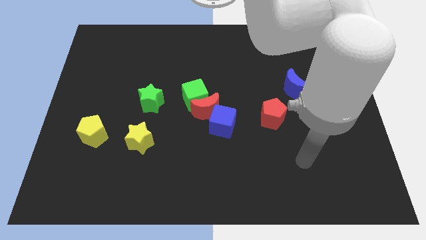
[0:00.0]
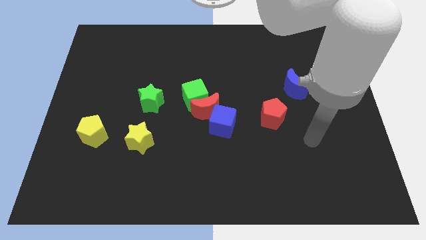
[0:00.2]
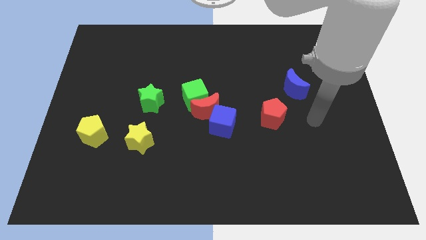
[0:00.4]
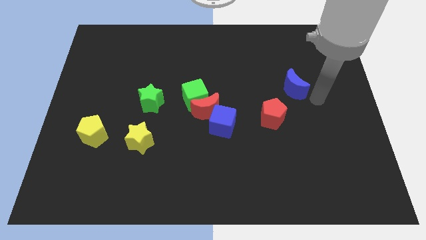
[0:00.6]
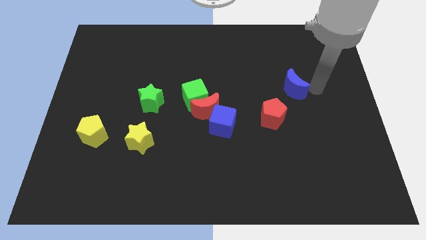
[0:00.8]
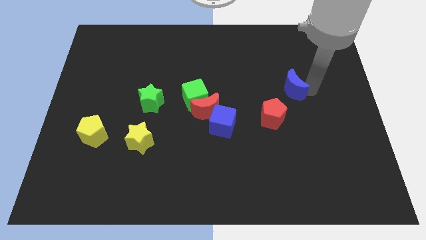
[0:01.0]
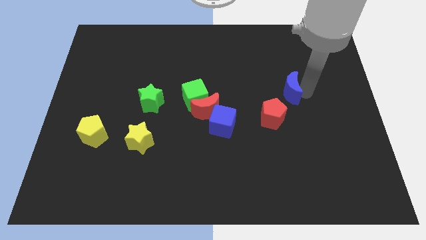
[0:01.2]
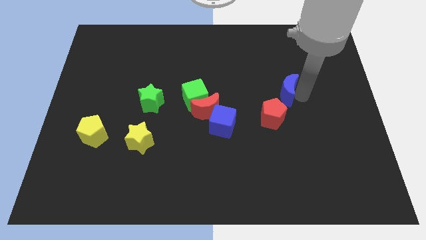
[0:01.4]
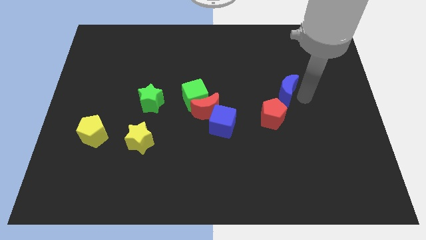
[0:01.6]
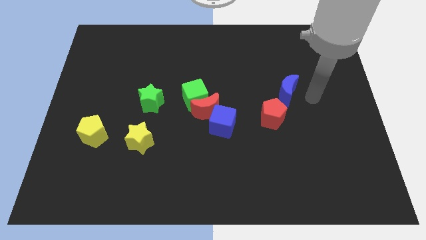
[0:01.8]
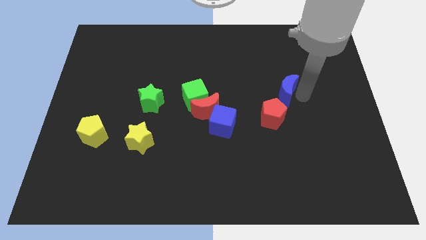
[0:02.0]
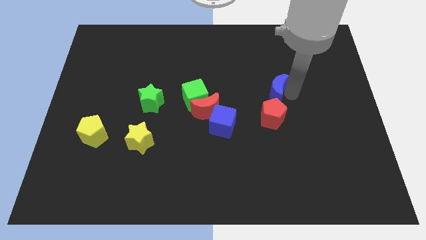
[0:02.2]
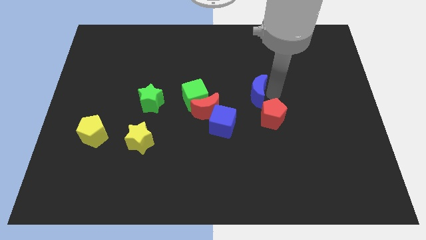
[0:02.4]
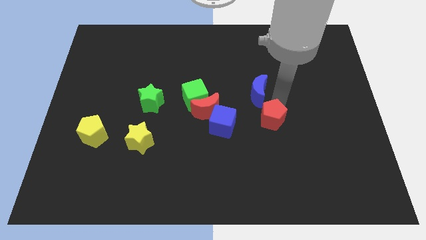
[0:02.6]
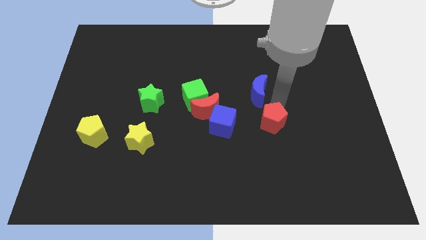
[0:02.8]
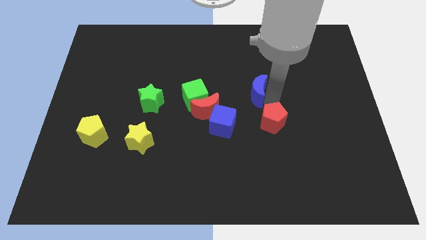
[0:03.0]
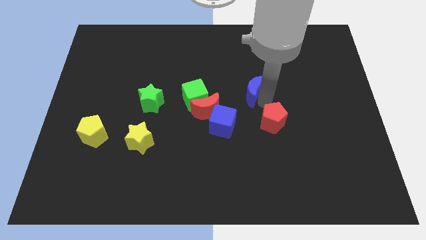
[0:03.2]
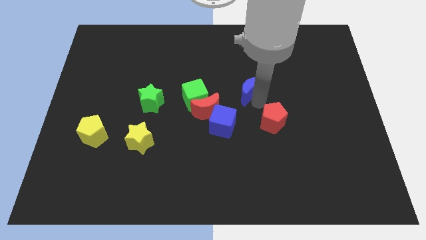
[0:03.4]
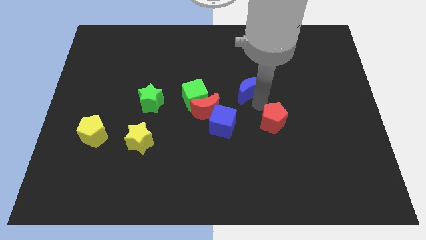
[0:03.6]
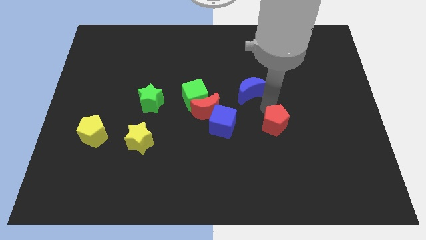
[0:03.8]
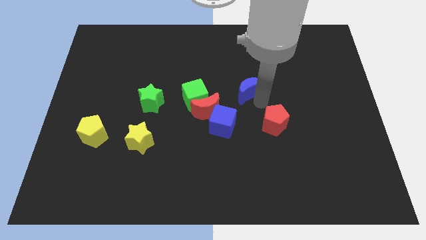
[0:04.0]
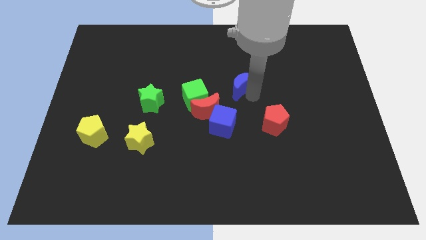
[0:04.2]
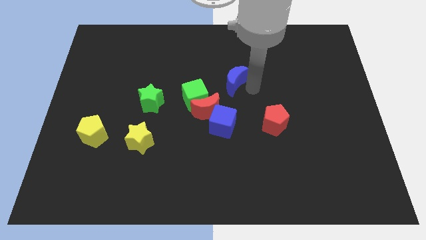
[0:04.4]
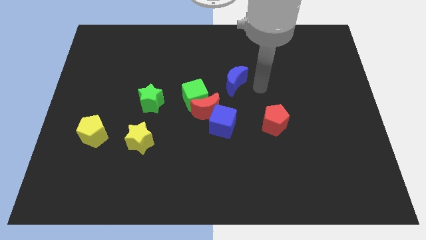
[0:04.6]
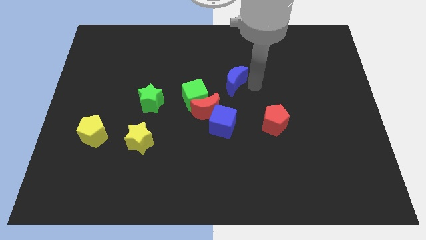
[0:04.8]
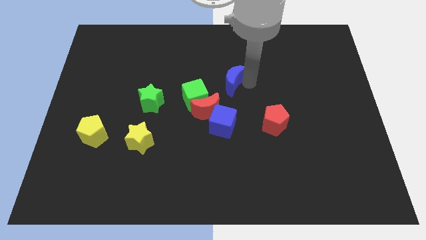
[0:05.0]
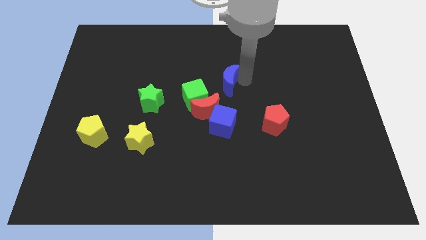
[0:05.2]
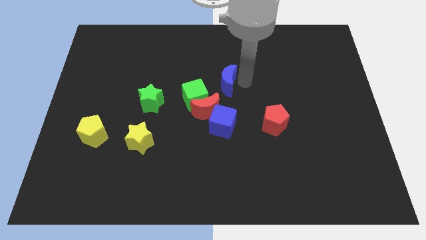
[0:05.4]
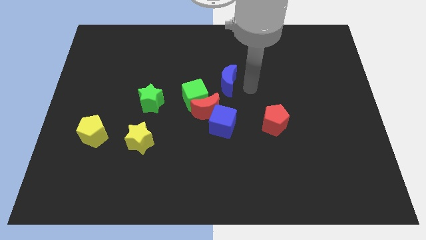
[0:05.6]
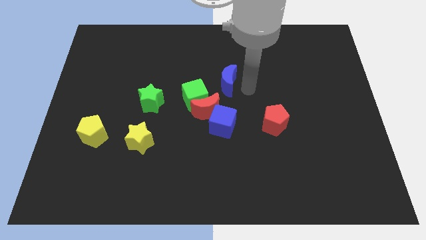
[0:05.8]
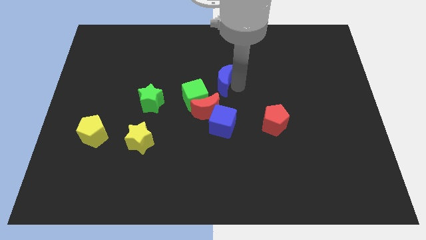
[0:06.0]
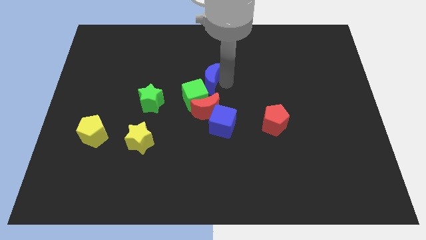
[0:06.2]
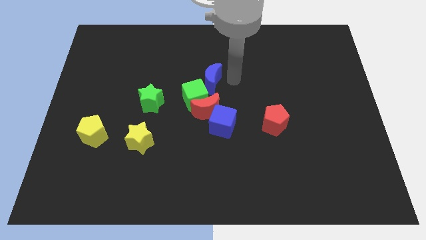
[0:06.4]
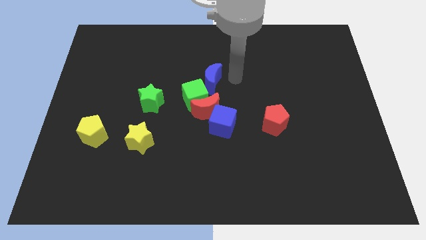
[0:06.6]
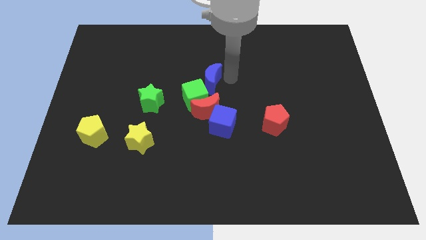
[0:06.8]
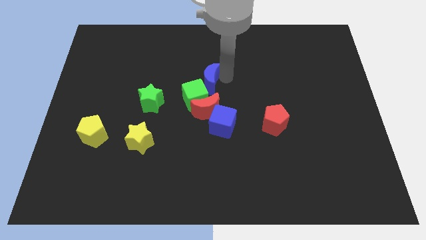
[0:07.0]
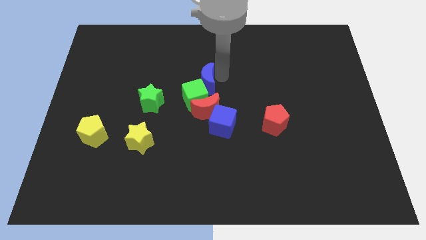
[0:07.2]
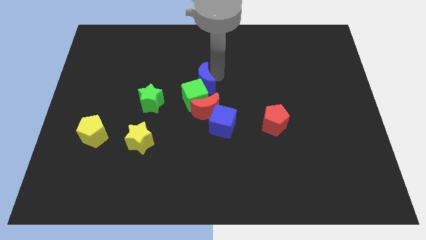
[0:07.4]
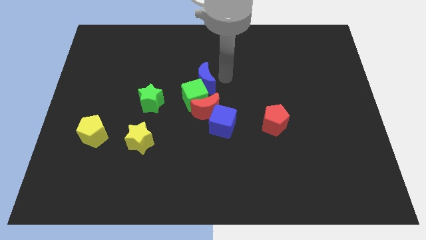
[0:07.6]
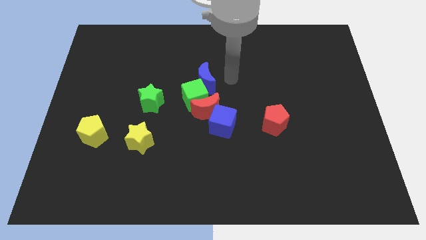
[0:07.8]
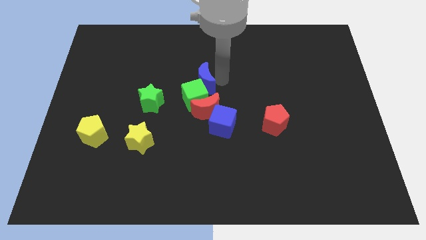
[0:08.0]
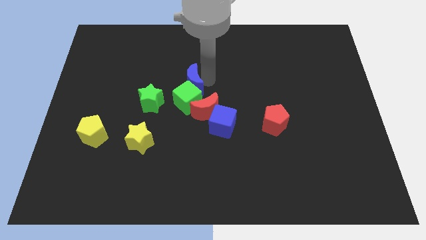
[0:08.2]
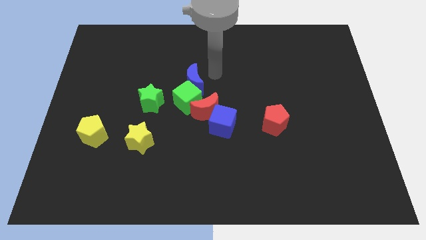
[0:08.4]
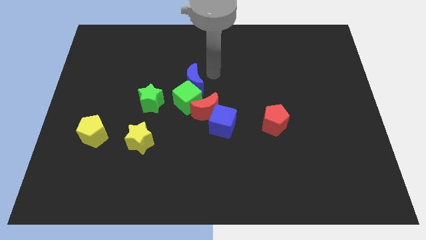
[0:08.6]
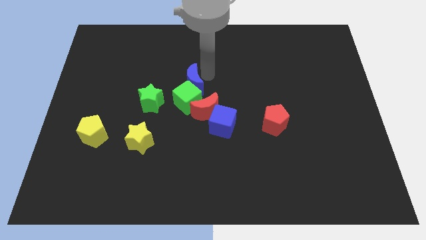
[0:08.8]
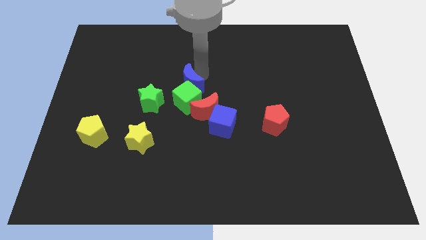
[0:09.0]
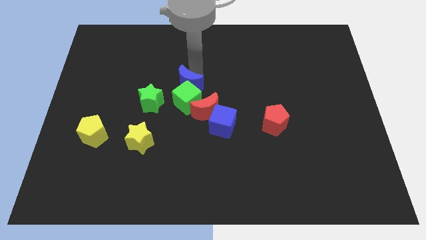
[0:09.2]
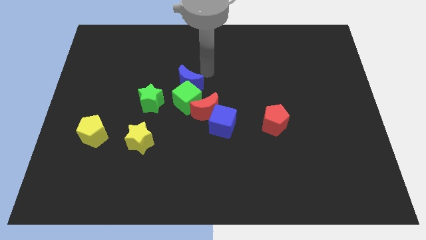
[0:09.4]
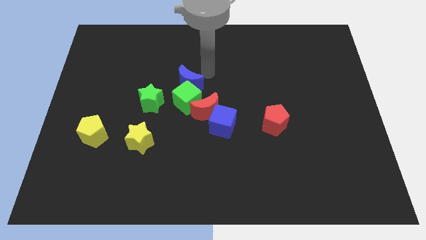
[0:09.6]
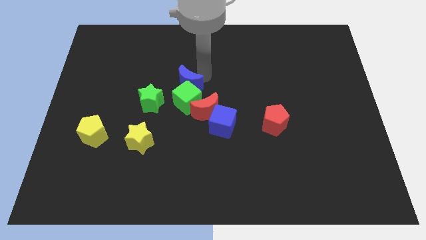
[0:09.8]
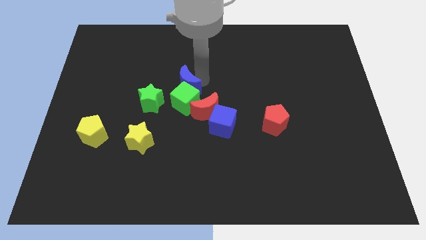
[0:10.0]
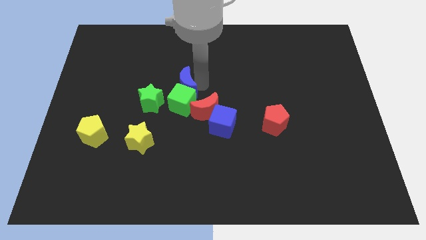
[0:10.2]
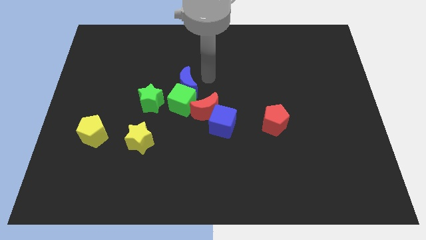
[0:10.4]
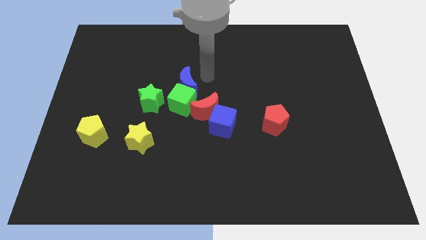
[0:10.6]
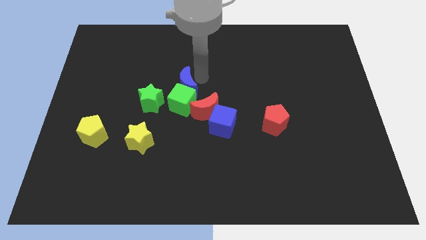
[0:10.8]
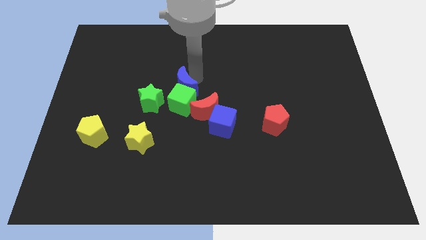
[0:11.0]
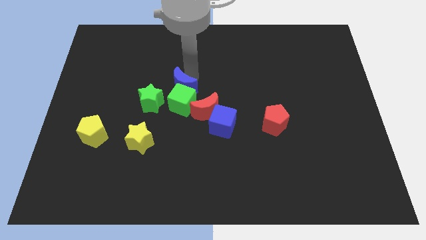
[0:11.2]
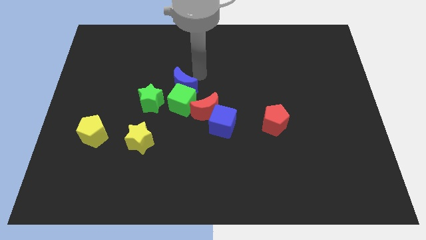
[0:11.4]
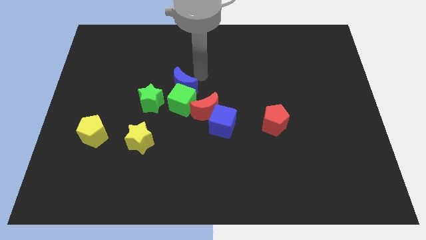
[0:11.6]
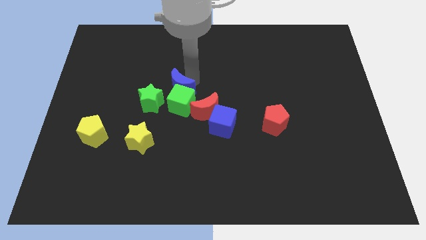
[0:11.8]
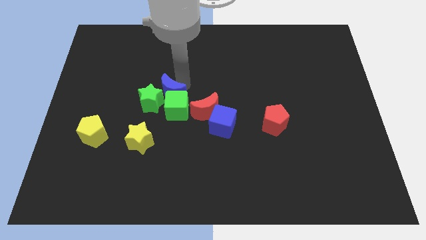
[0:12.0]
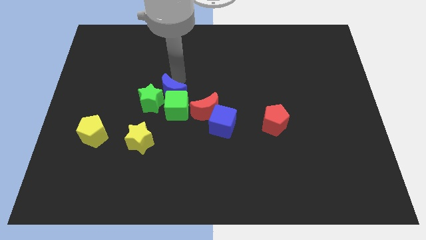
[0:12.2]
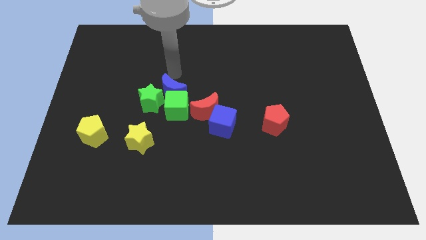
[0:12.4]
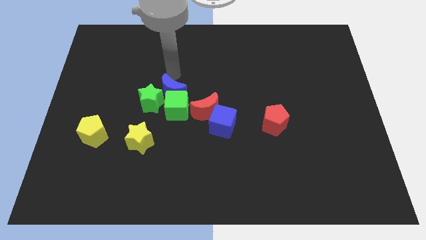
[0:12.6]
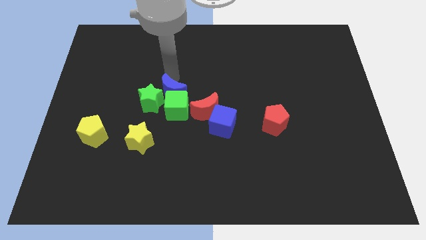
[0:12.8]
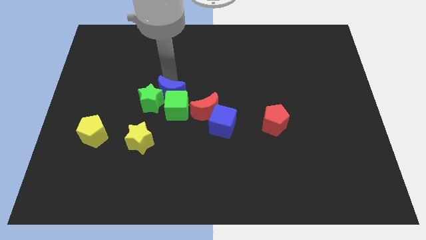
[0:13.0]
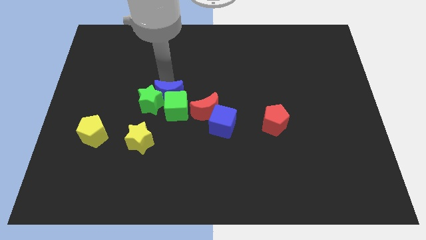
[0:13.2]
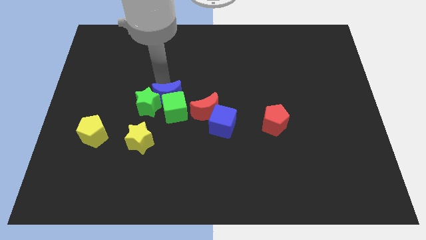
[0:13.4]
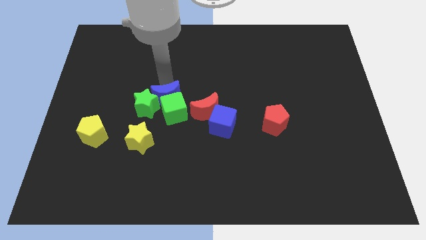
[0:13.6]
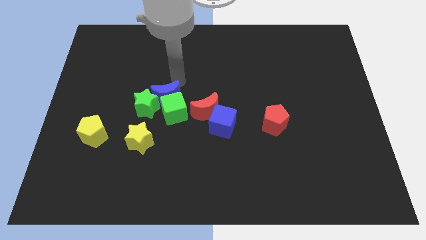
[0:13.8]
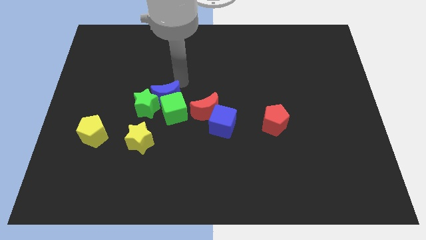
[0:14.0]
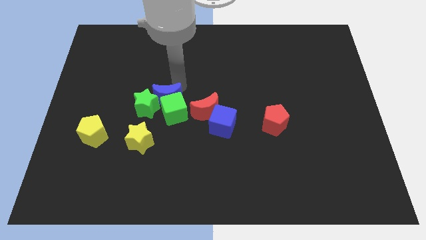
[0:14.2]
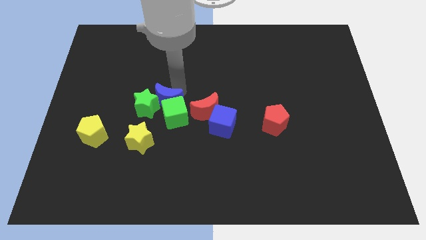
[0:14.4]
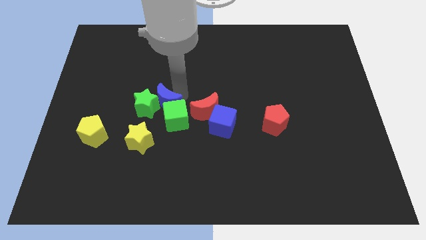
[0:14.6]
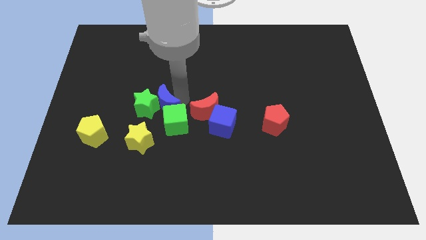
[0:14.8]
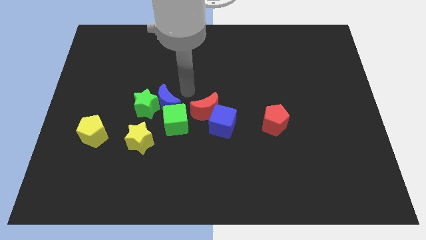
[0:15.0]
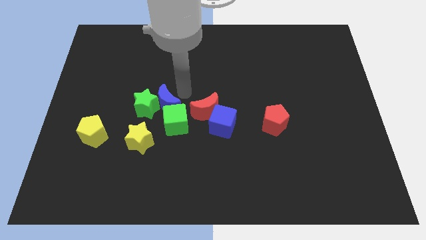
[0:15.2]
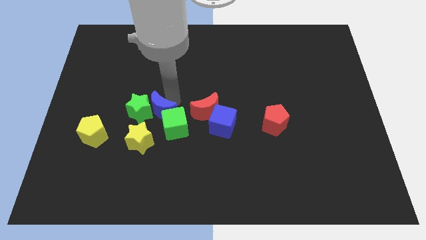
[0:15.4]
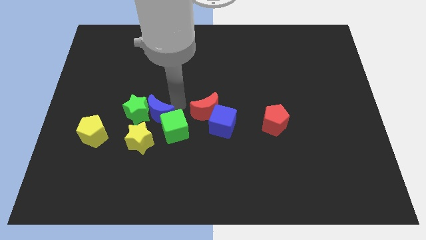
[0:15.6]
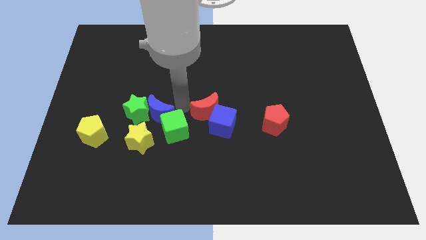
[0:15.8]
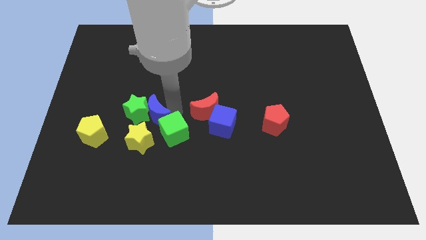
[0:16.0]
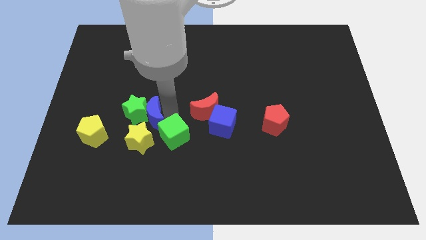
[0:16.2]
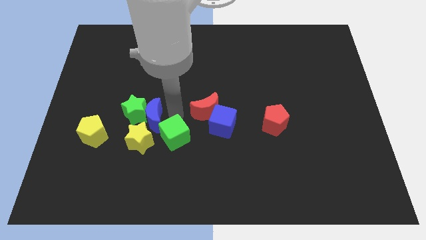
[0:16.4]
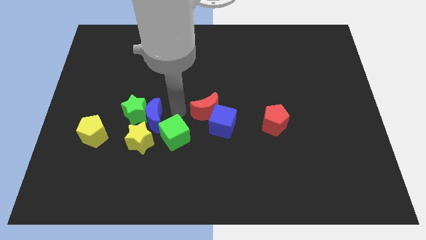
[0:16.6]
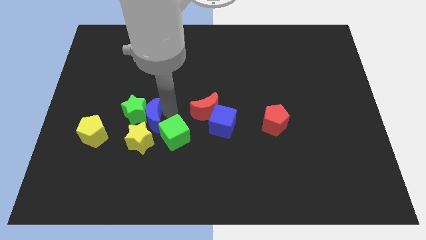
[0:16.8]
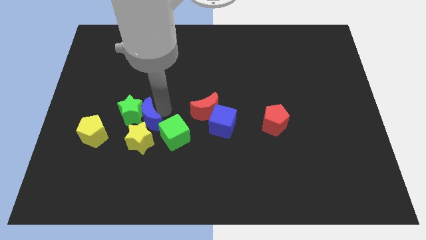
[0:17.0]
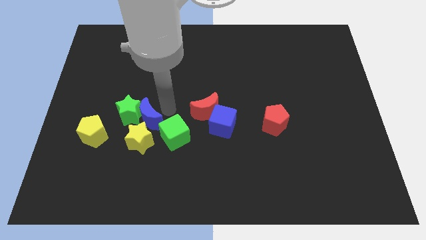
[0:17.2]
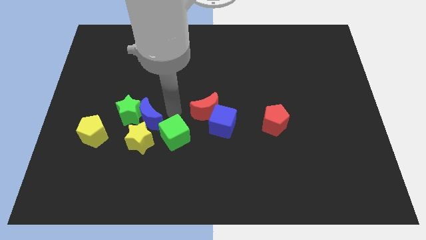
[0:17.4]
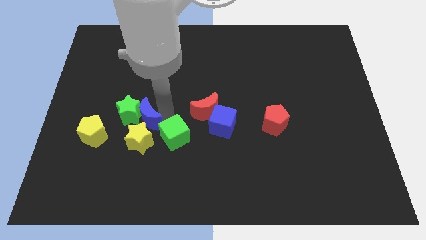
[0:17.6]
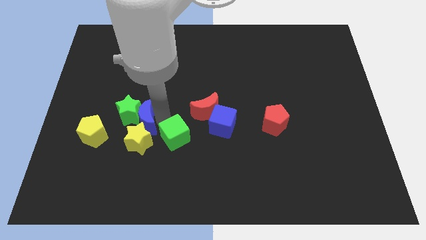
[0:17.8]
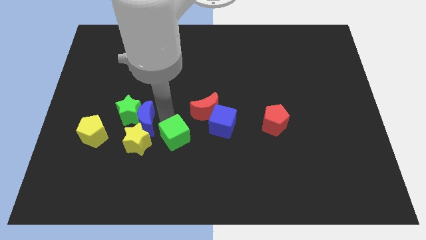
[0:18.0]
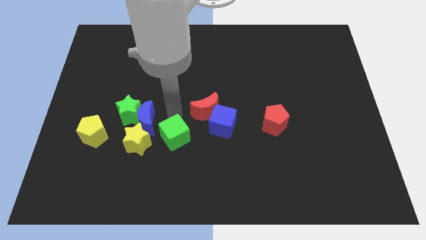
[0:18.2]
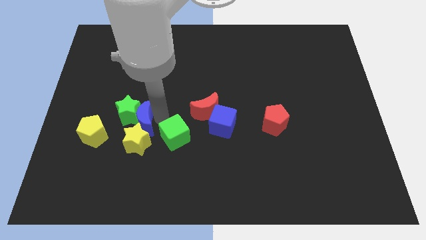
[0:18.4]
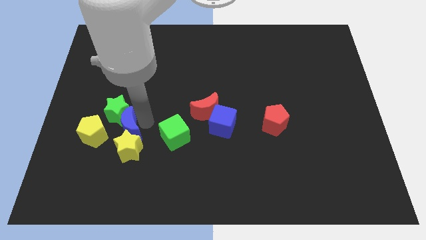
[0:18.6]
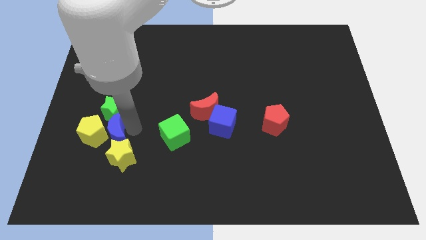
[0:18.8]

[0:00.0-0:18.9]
move the blue moon towards the yellow pentagon
